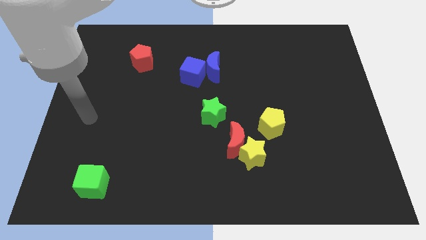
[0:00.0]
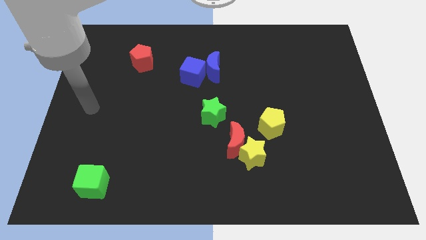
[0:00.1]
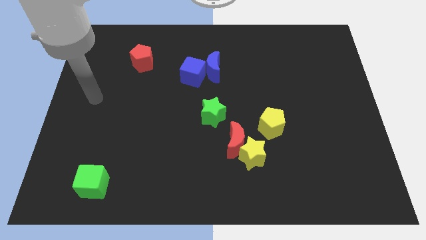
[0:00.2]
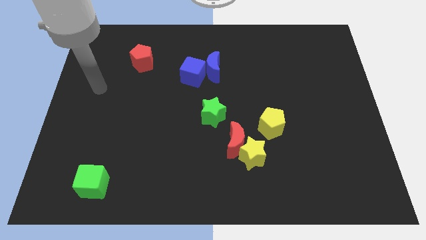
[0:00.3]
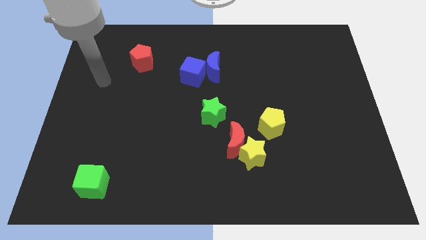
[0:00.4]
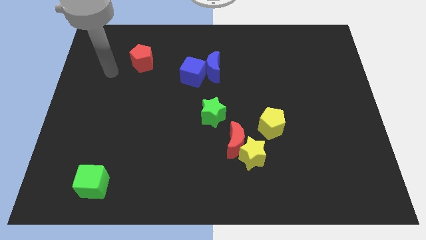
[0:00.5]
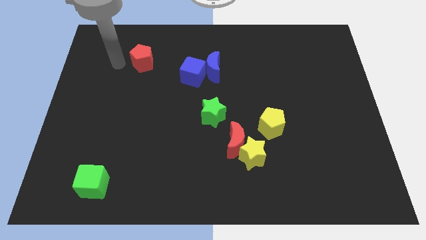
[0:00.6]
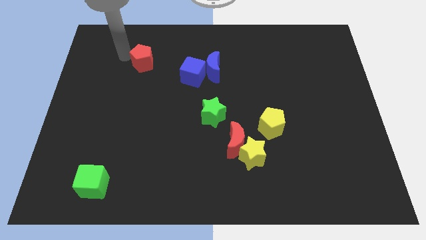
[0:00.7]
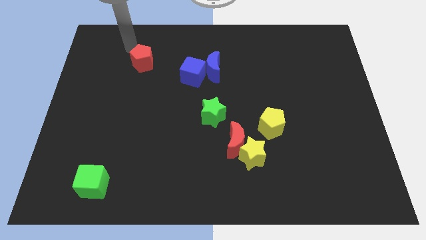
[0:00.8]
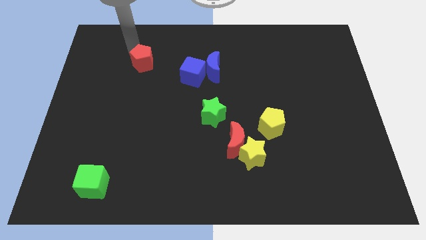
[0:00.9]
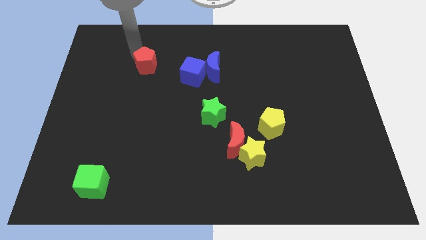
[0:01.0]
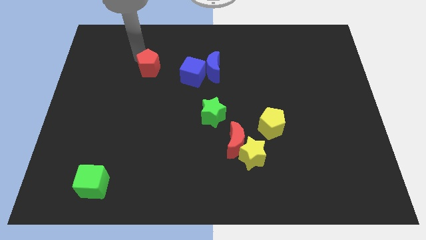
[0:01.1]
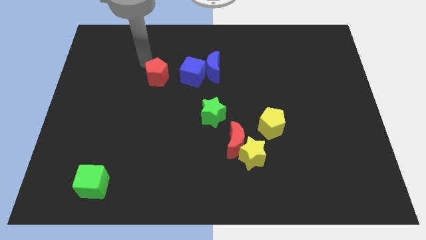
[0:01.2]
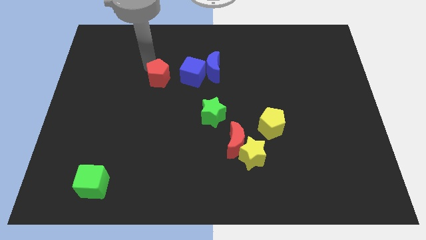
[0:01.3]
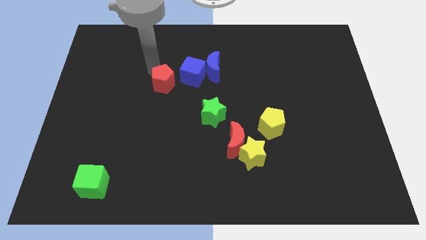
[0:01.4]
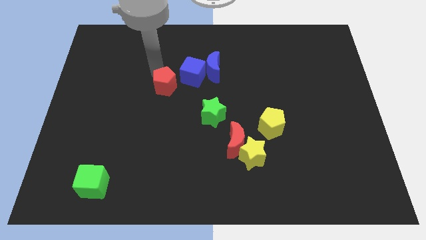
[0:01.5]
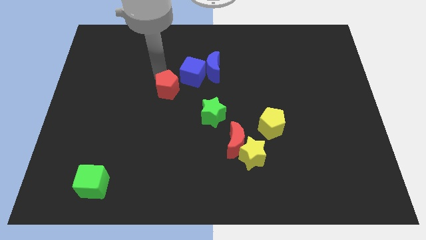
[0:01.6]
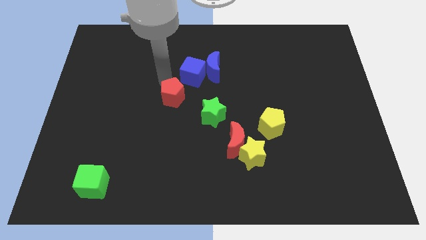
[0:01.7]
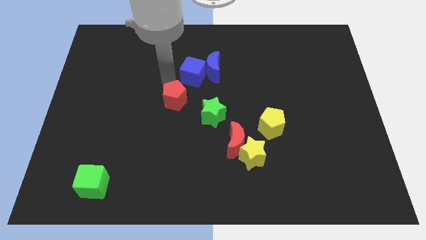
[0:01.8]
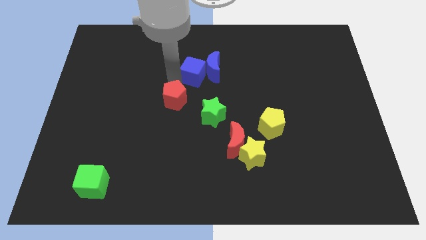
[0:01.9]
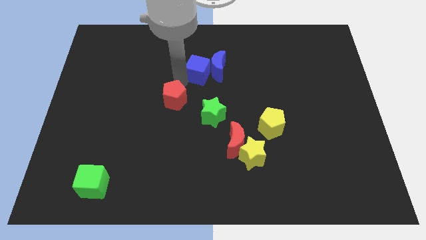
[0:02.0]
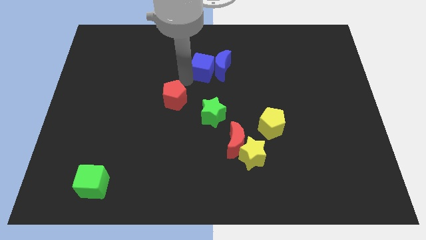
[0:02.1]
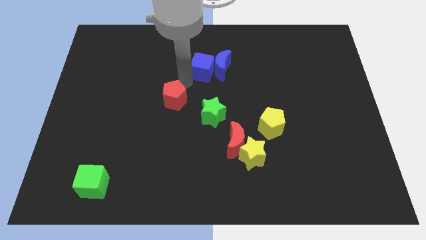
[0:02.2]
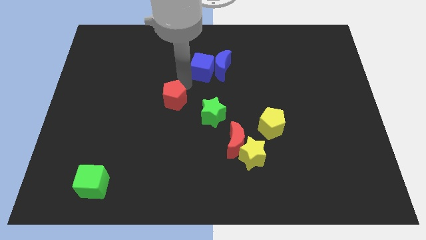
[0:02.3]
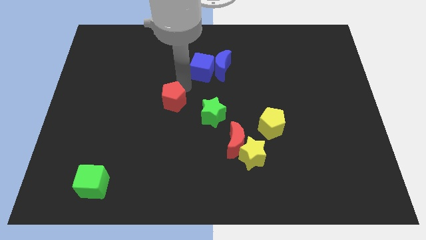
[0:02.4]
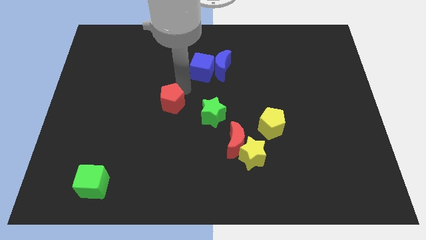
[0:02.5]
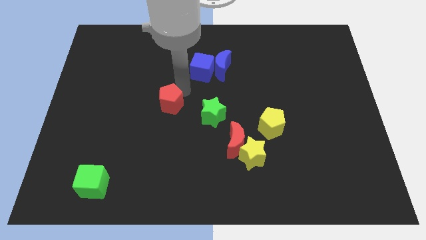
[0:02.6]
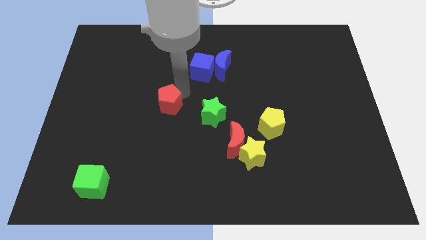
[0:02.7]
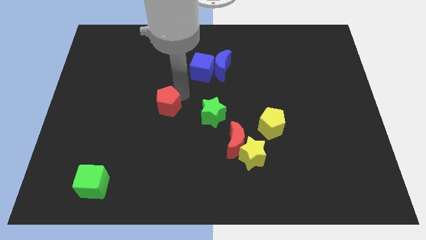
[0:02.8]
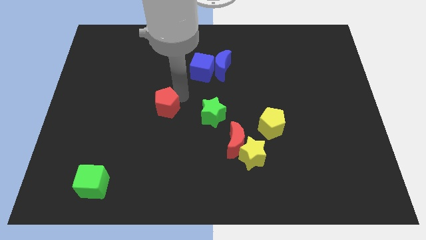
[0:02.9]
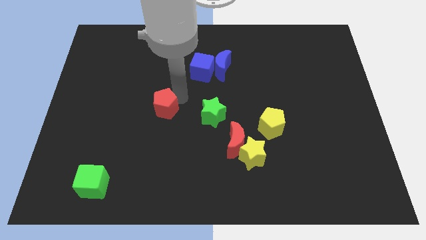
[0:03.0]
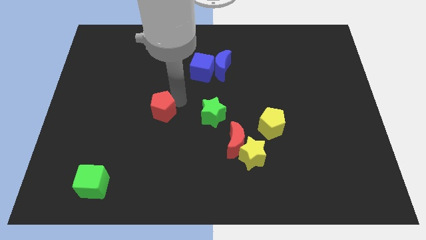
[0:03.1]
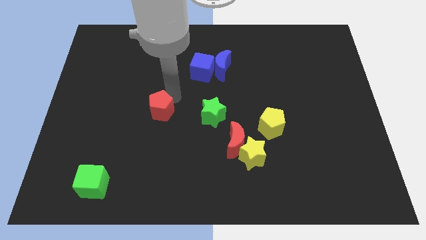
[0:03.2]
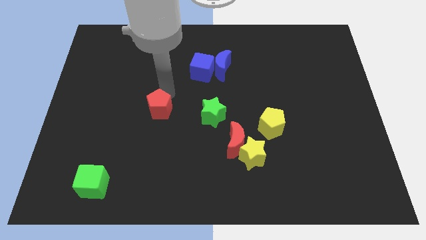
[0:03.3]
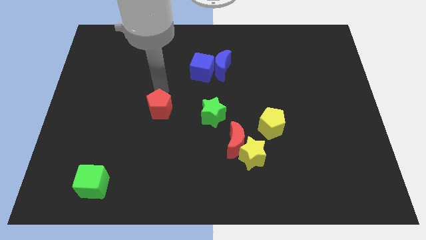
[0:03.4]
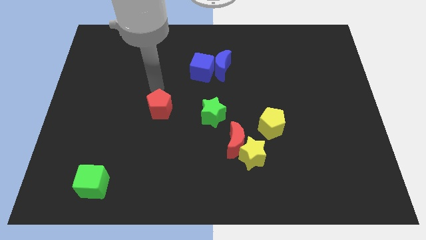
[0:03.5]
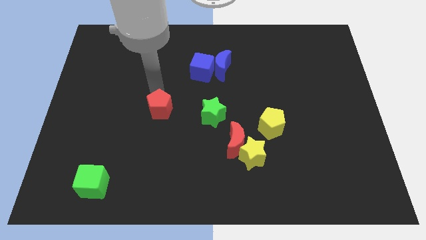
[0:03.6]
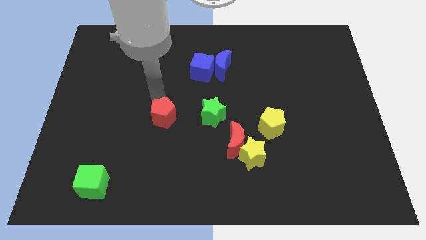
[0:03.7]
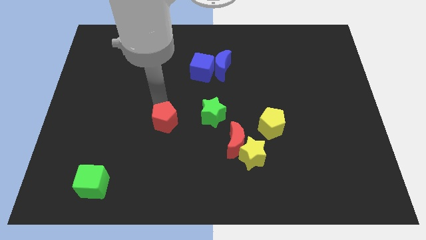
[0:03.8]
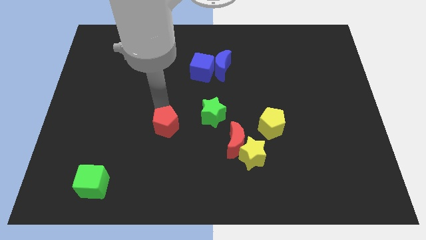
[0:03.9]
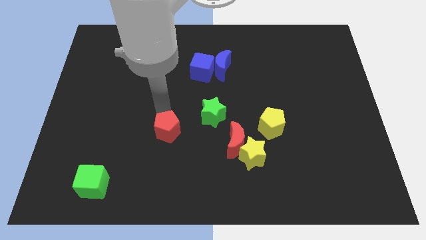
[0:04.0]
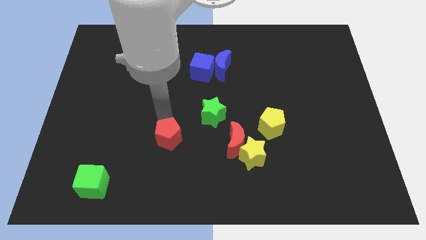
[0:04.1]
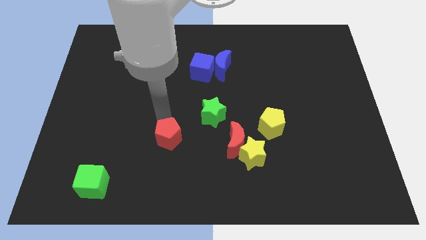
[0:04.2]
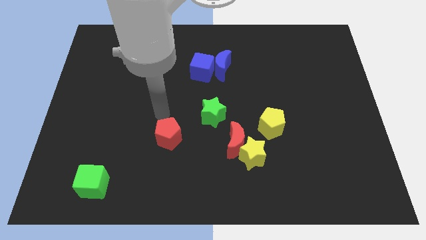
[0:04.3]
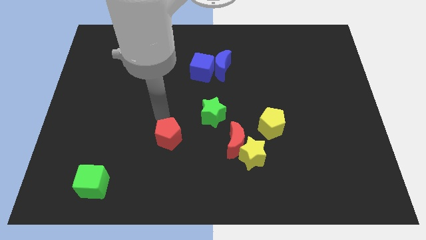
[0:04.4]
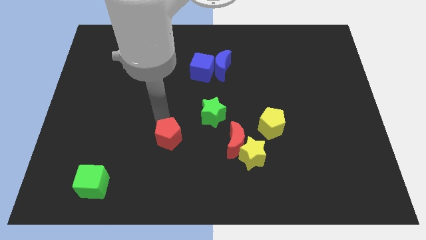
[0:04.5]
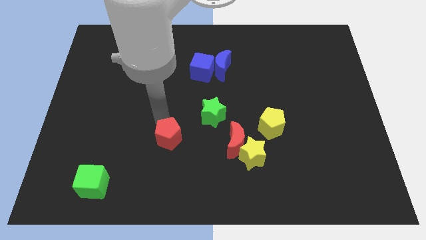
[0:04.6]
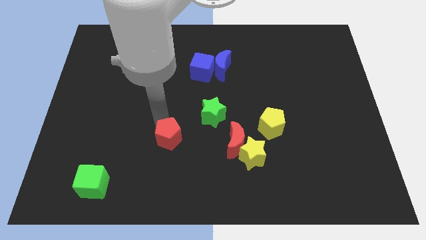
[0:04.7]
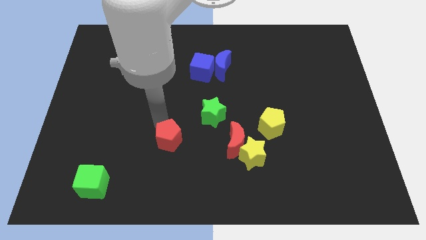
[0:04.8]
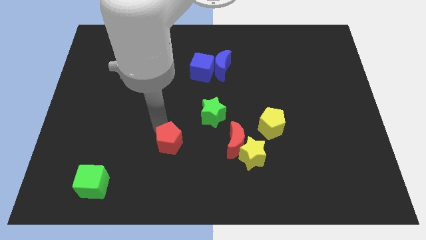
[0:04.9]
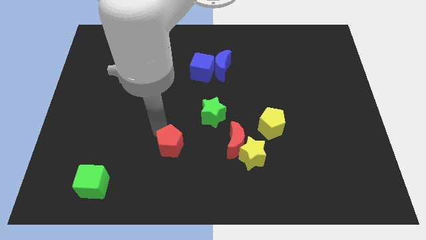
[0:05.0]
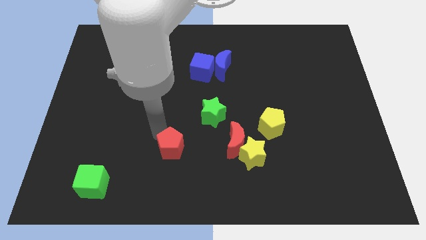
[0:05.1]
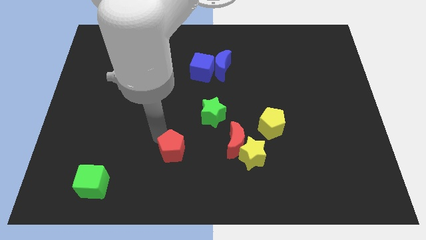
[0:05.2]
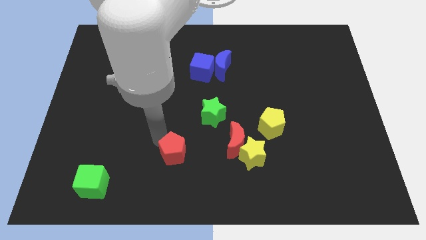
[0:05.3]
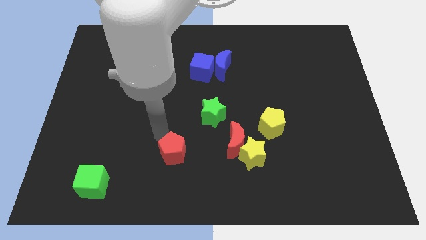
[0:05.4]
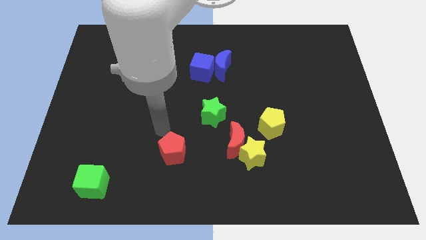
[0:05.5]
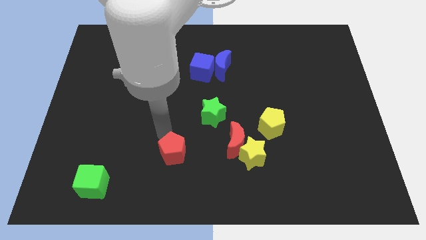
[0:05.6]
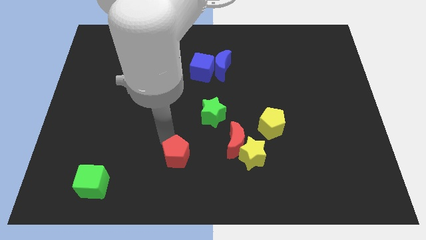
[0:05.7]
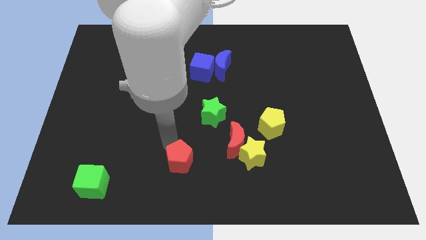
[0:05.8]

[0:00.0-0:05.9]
move the red pentagon to the bottom side

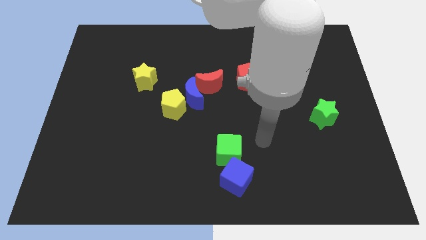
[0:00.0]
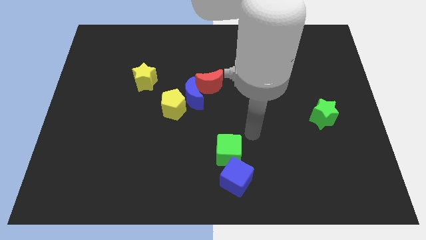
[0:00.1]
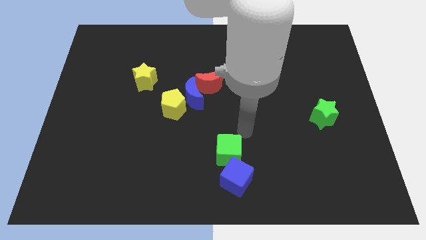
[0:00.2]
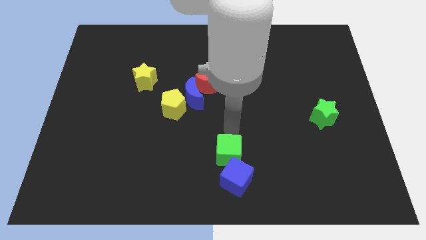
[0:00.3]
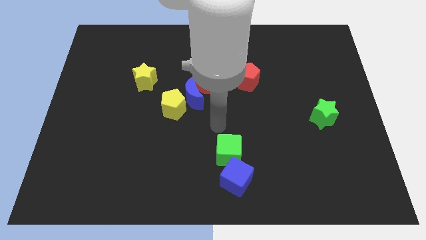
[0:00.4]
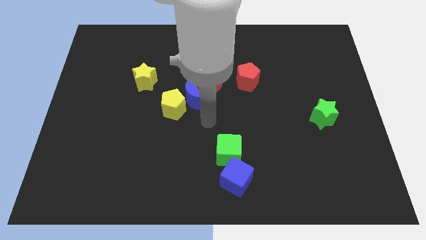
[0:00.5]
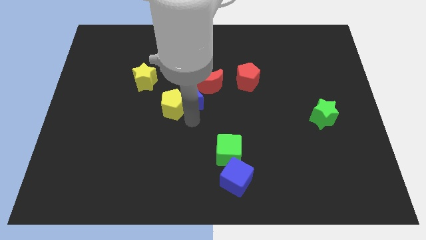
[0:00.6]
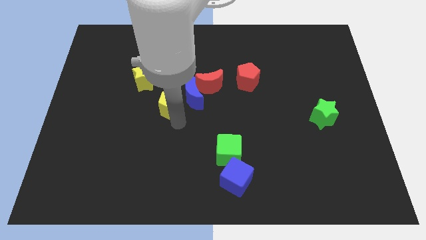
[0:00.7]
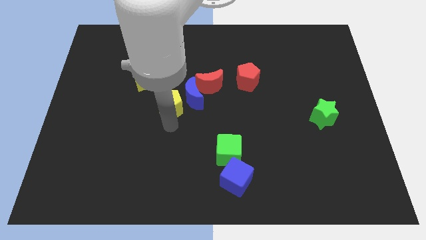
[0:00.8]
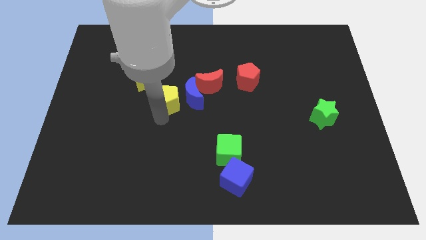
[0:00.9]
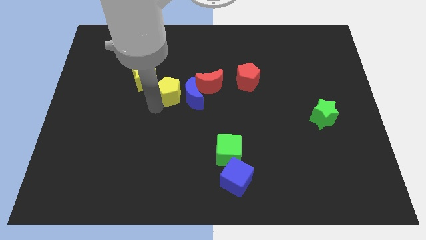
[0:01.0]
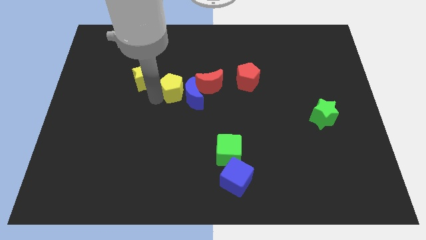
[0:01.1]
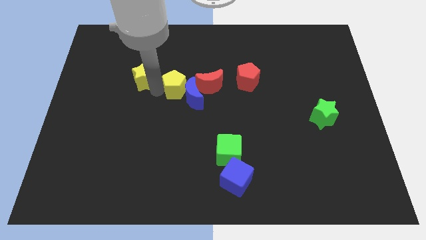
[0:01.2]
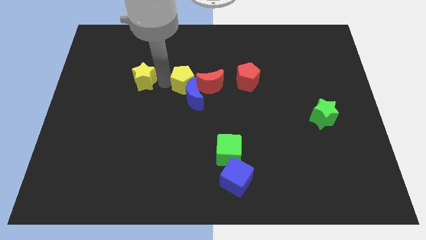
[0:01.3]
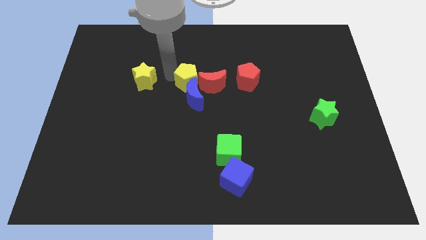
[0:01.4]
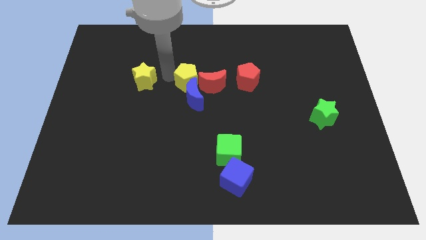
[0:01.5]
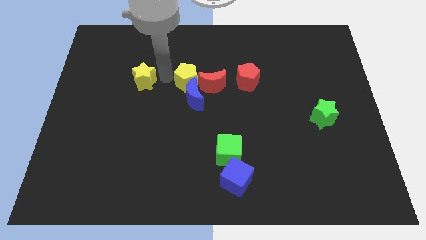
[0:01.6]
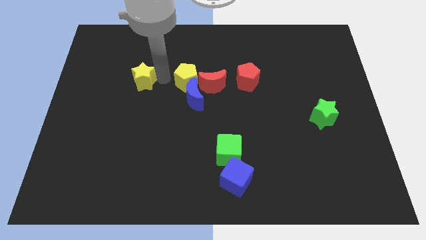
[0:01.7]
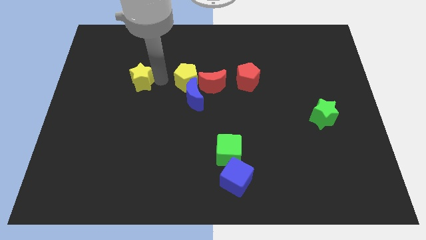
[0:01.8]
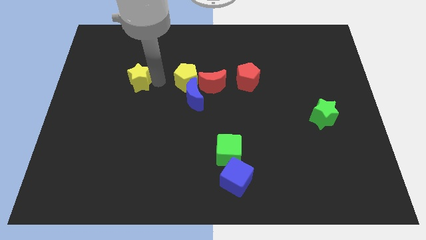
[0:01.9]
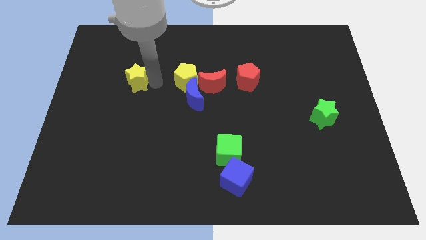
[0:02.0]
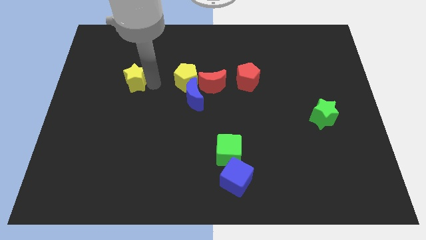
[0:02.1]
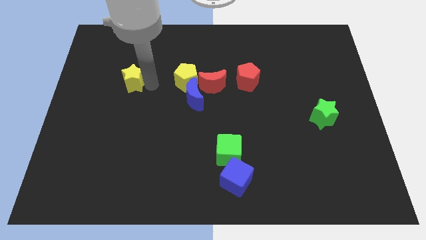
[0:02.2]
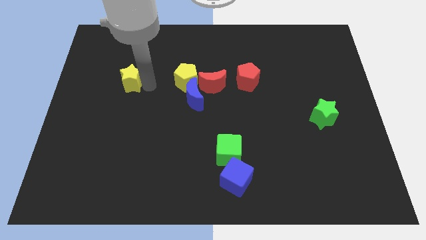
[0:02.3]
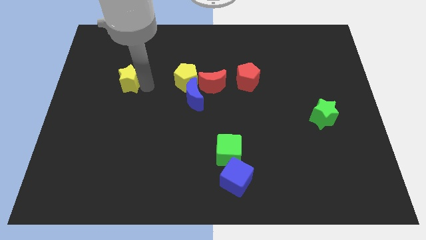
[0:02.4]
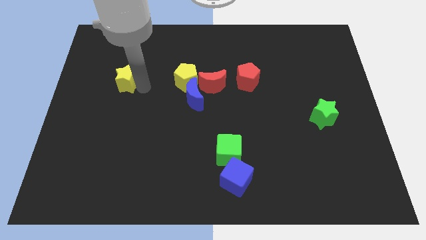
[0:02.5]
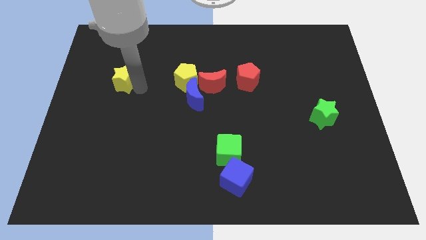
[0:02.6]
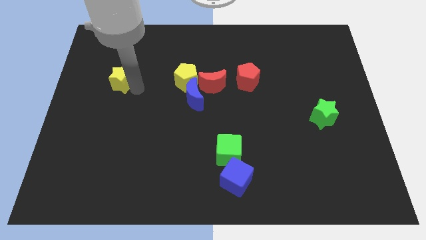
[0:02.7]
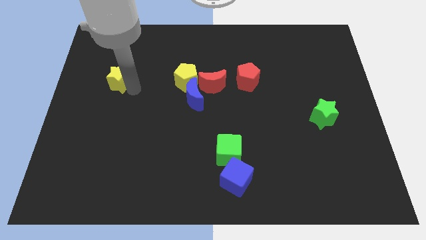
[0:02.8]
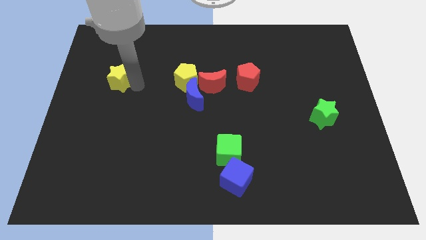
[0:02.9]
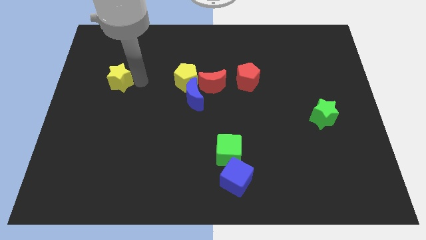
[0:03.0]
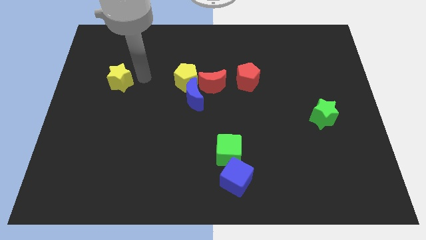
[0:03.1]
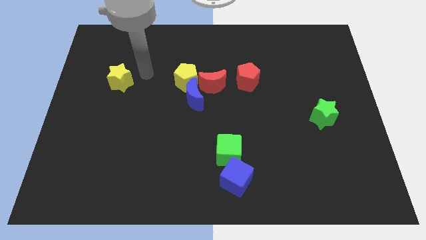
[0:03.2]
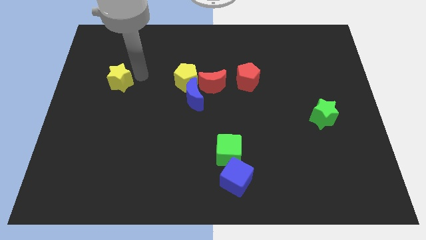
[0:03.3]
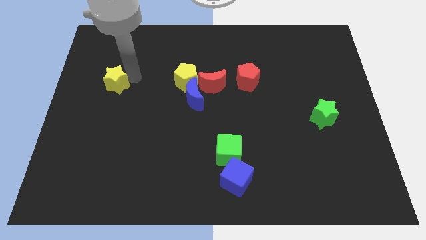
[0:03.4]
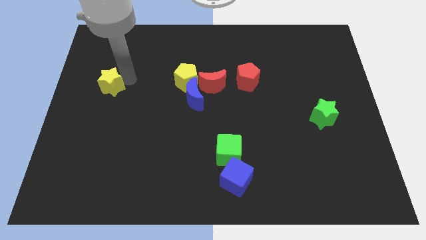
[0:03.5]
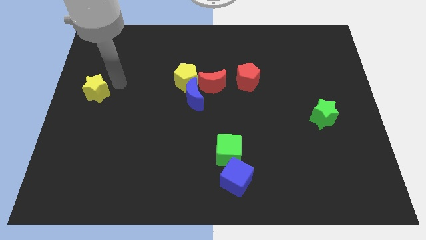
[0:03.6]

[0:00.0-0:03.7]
move the yellow star to the left side
